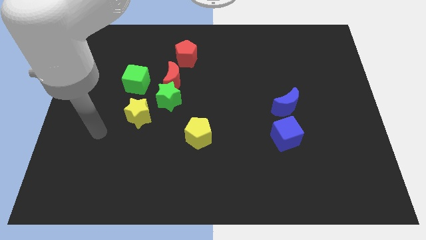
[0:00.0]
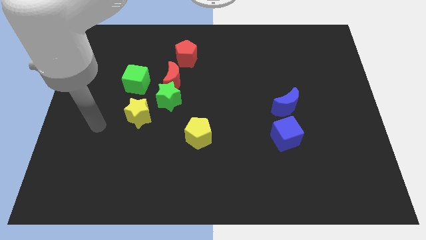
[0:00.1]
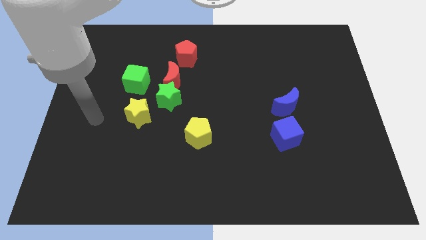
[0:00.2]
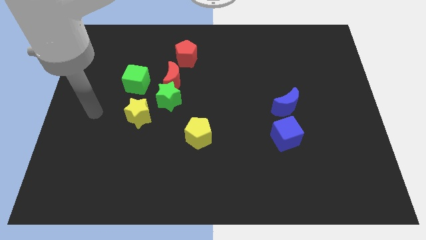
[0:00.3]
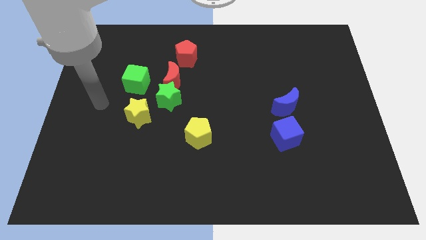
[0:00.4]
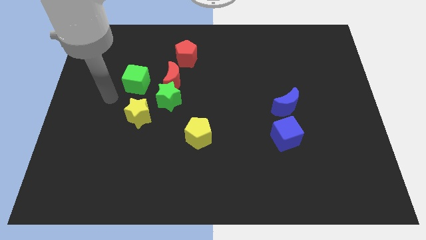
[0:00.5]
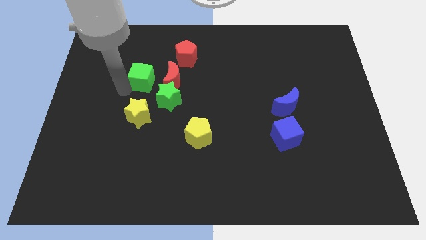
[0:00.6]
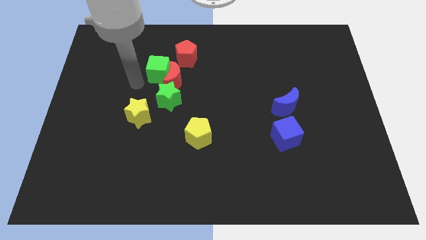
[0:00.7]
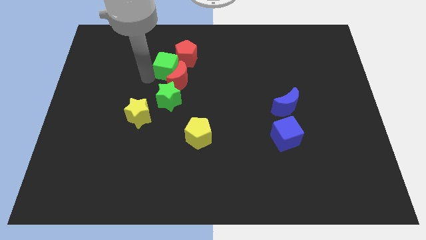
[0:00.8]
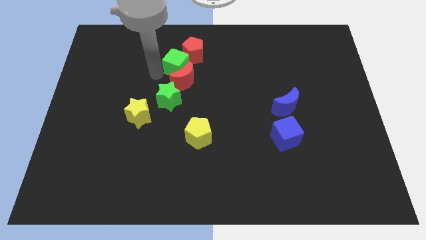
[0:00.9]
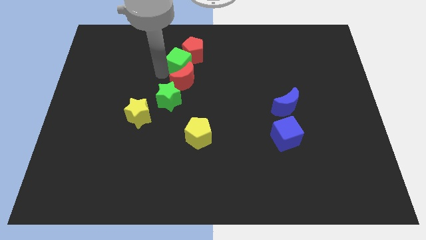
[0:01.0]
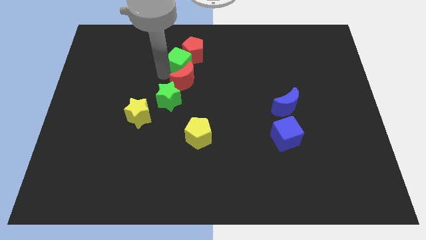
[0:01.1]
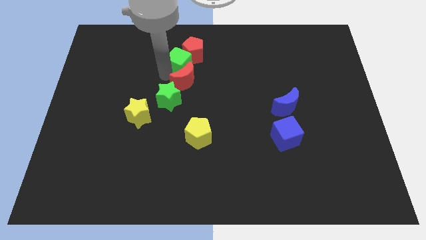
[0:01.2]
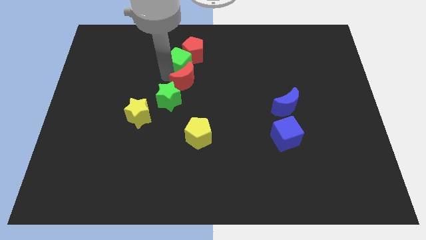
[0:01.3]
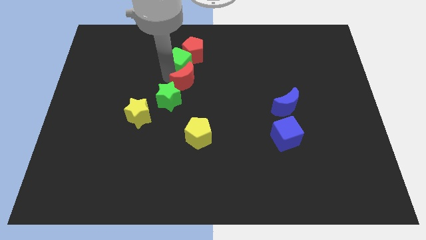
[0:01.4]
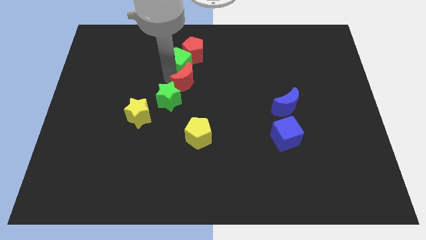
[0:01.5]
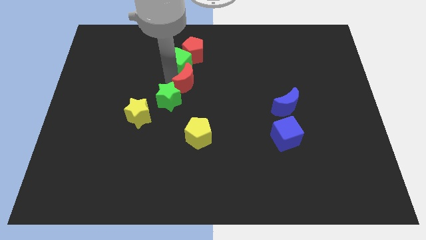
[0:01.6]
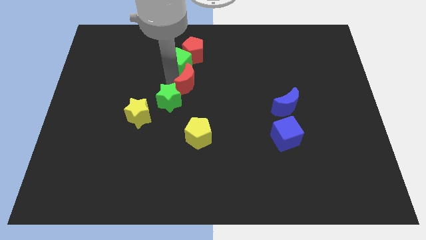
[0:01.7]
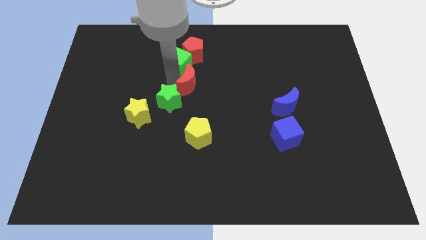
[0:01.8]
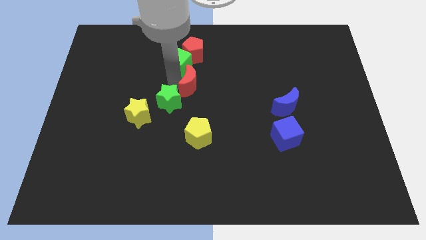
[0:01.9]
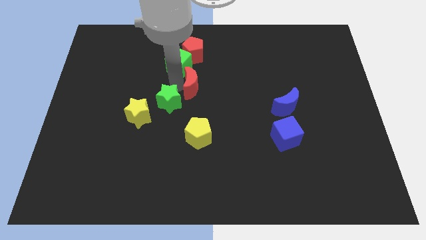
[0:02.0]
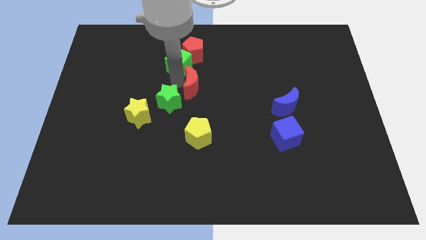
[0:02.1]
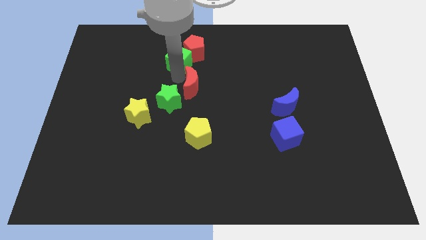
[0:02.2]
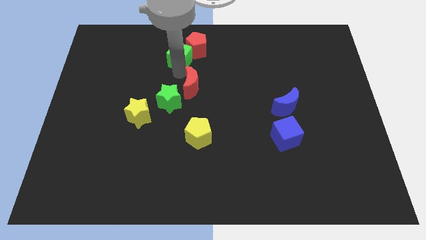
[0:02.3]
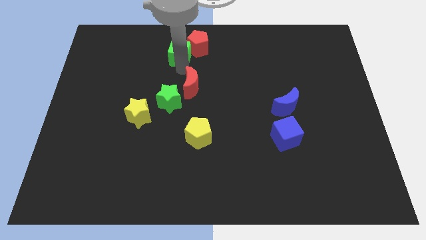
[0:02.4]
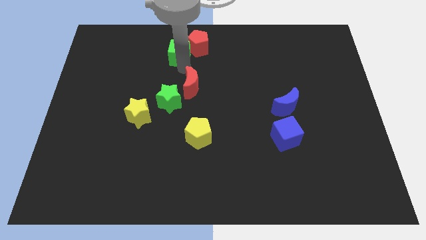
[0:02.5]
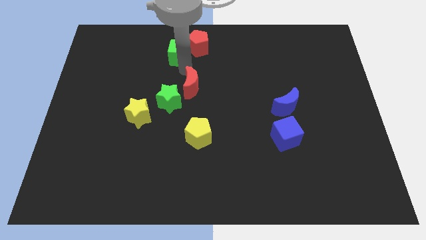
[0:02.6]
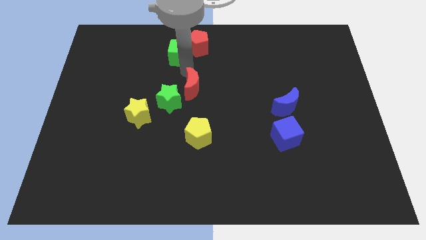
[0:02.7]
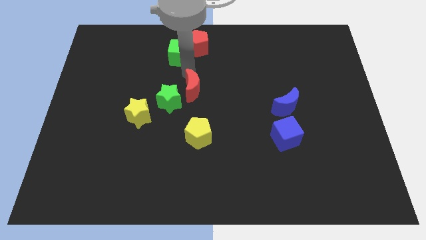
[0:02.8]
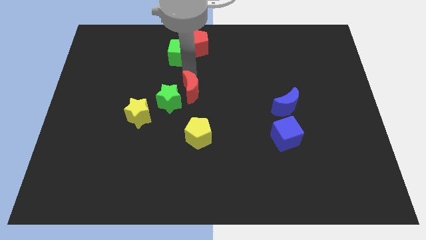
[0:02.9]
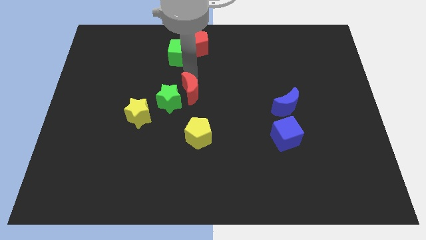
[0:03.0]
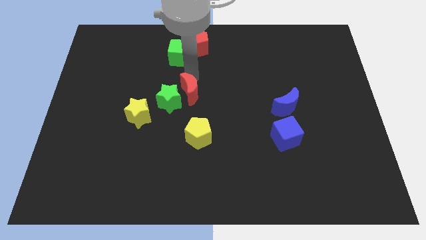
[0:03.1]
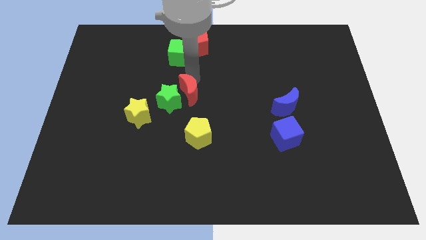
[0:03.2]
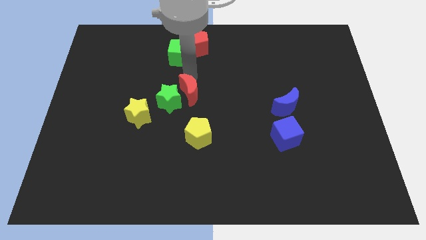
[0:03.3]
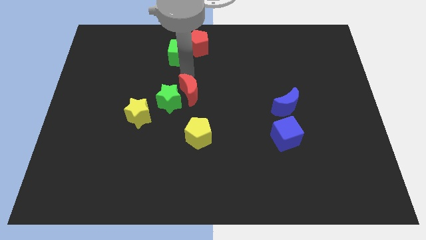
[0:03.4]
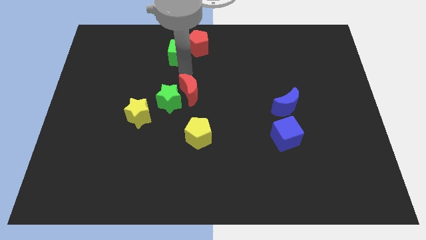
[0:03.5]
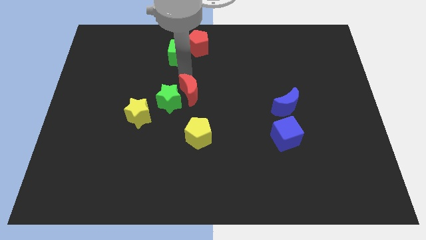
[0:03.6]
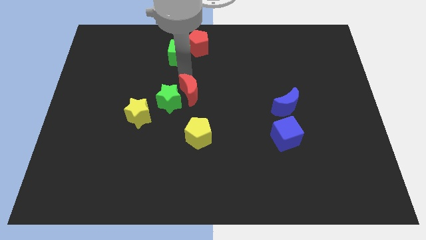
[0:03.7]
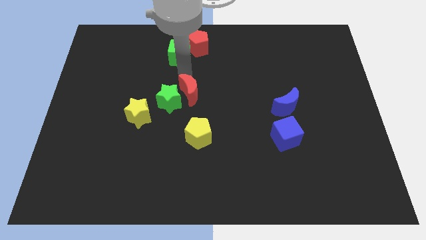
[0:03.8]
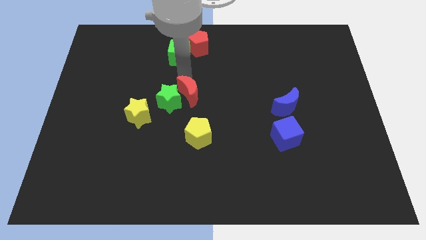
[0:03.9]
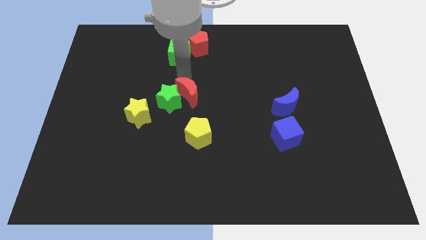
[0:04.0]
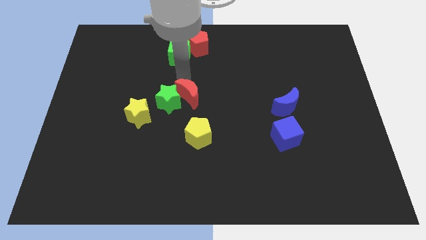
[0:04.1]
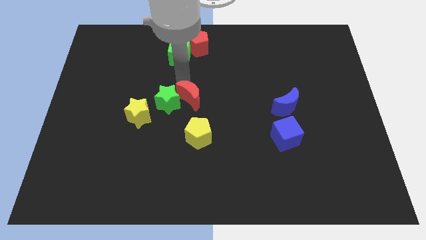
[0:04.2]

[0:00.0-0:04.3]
pull the red moon apart from the green star, red pentagon, and green cube

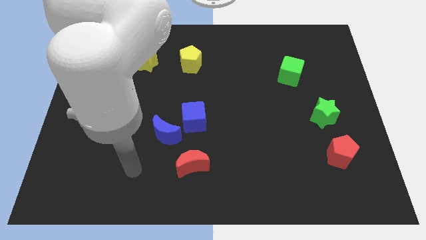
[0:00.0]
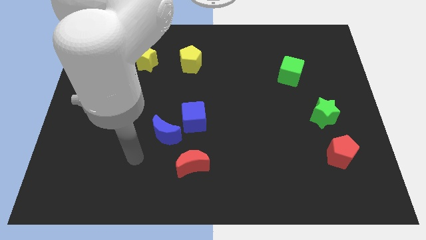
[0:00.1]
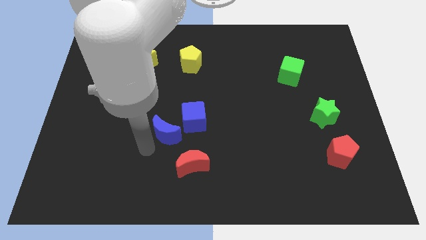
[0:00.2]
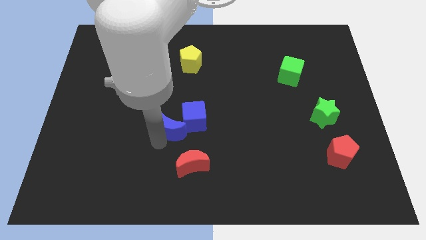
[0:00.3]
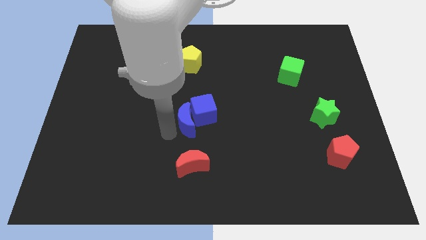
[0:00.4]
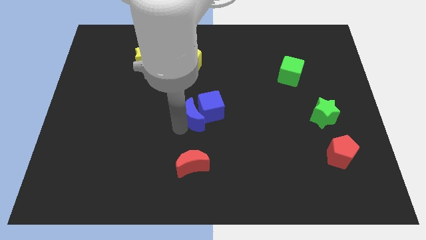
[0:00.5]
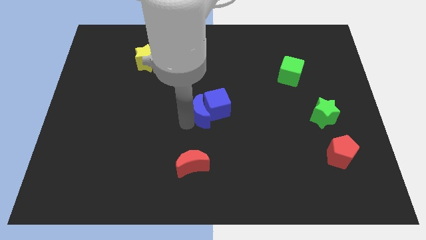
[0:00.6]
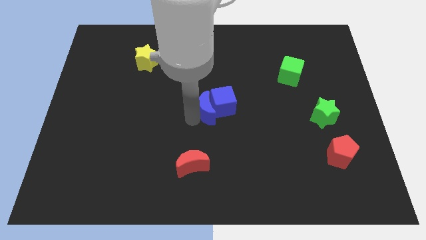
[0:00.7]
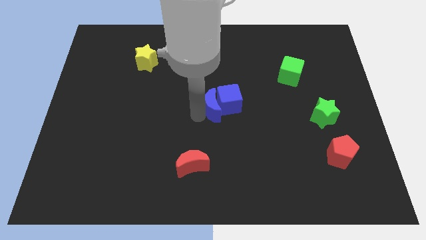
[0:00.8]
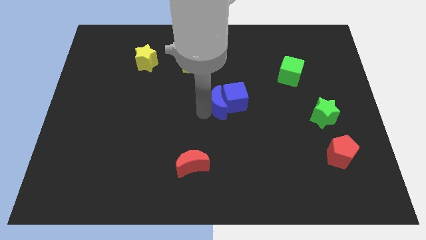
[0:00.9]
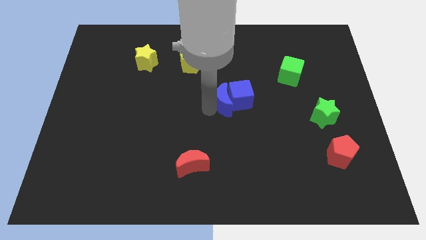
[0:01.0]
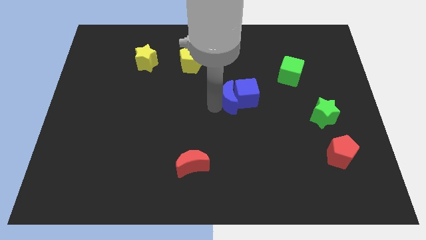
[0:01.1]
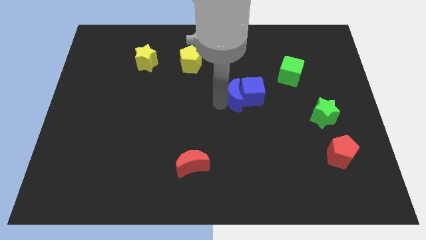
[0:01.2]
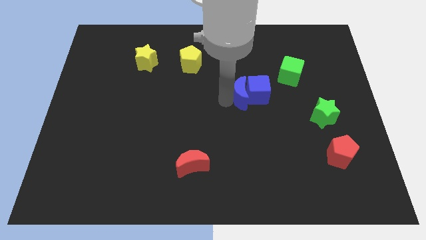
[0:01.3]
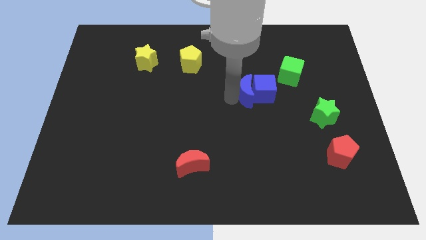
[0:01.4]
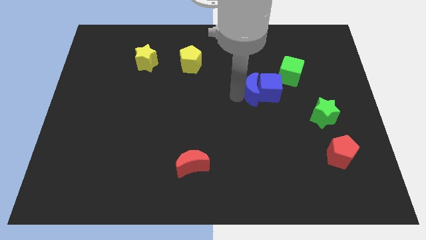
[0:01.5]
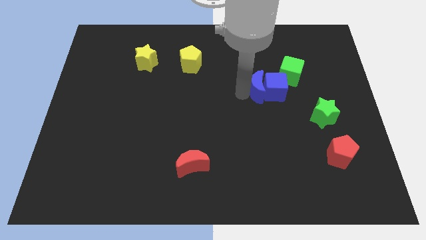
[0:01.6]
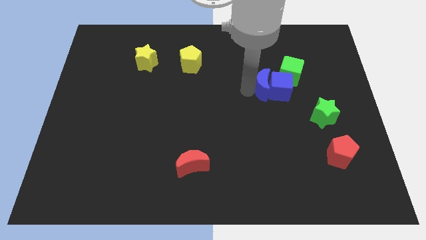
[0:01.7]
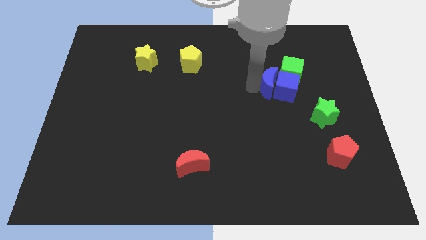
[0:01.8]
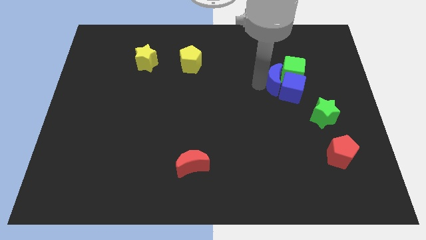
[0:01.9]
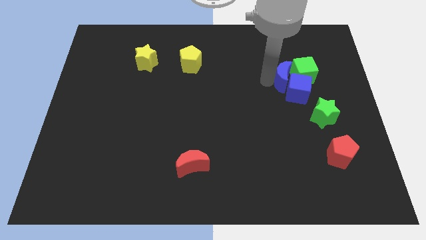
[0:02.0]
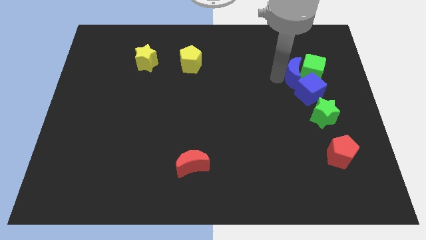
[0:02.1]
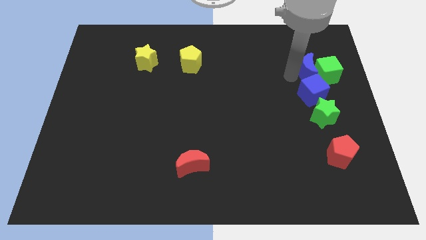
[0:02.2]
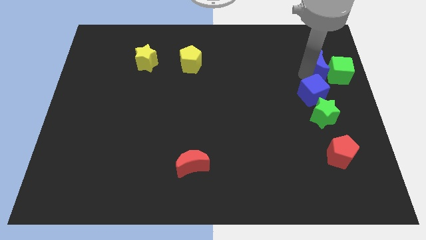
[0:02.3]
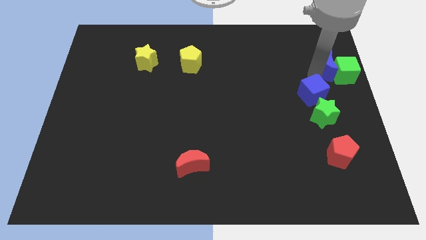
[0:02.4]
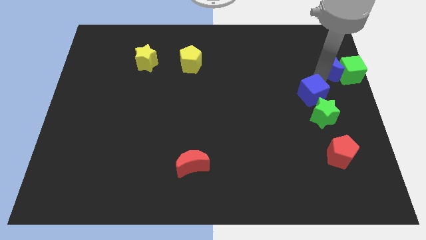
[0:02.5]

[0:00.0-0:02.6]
move the blue cube away from the blue moon

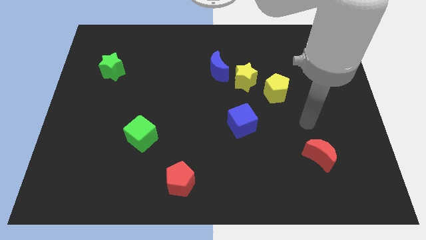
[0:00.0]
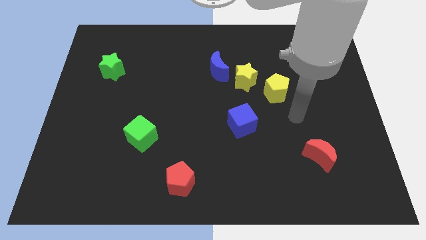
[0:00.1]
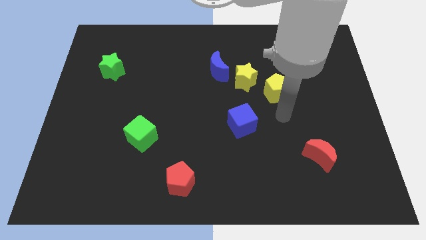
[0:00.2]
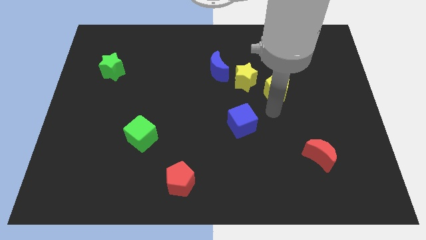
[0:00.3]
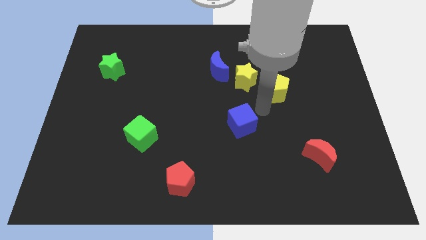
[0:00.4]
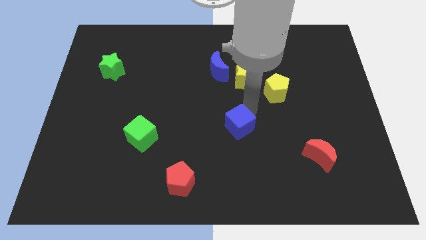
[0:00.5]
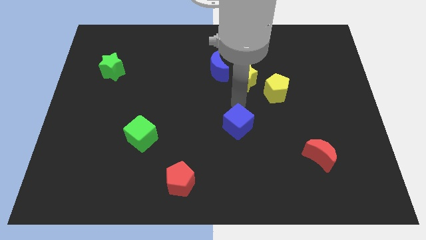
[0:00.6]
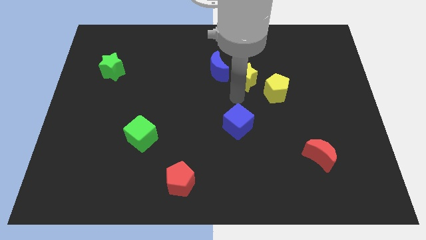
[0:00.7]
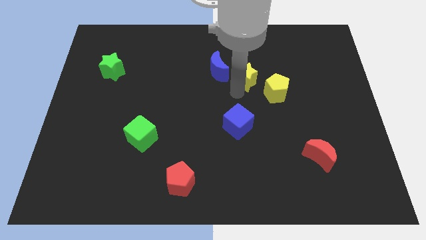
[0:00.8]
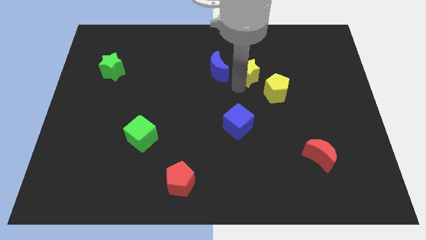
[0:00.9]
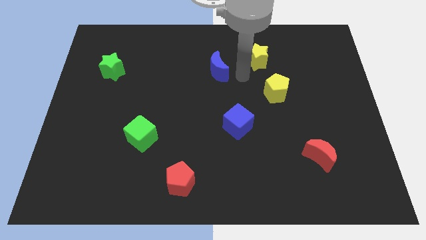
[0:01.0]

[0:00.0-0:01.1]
move the blue moon away from the yellow star

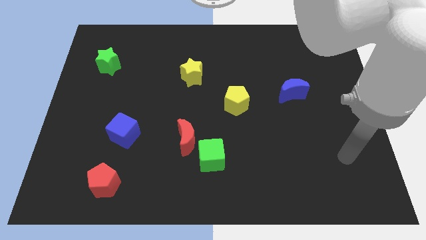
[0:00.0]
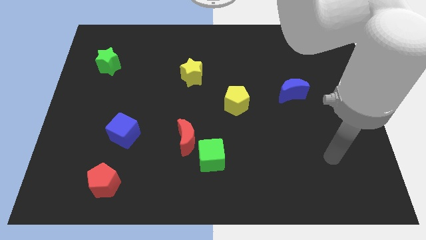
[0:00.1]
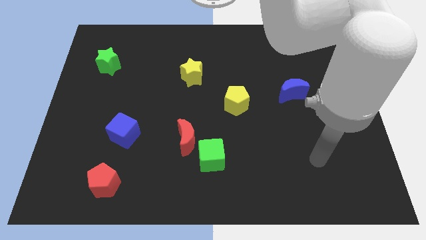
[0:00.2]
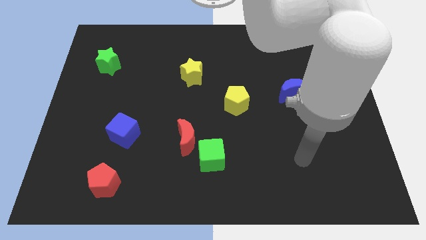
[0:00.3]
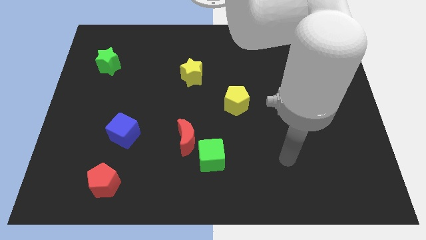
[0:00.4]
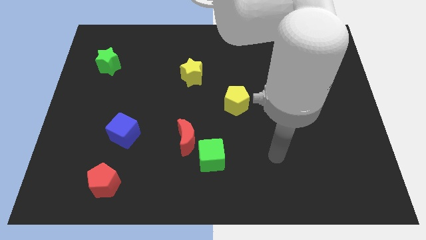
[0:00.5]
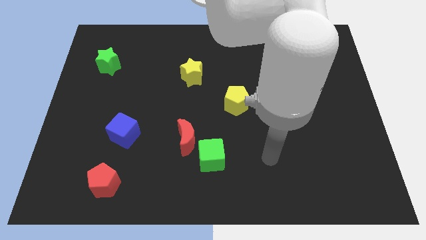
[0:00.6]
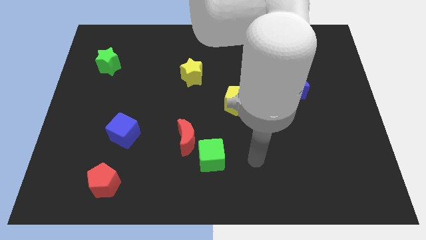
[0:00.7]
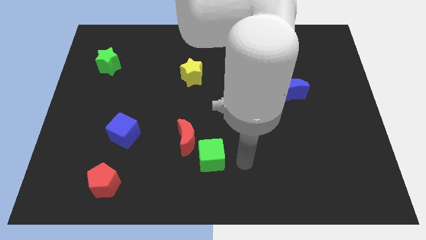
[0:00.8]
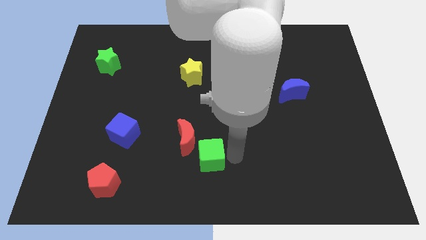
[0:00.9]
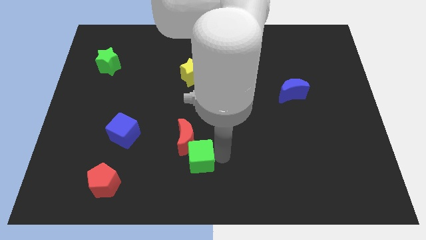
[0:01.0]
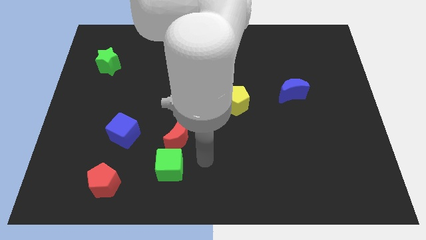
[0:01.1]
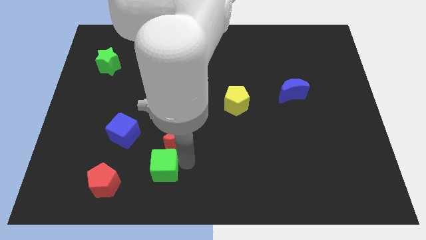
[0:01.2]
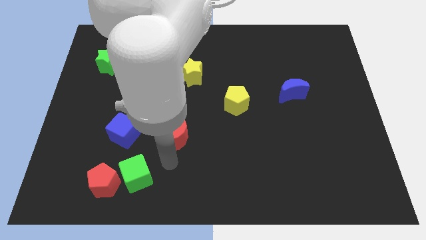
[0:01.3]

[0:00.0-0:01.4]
pull the red moon apart from the green cube
